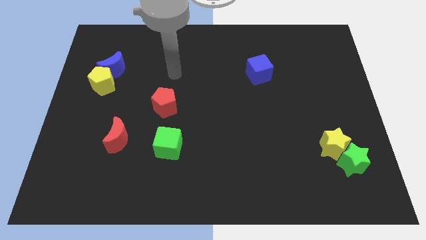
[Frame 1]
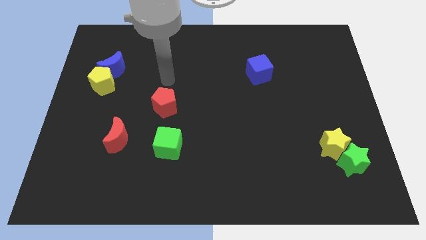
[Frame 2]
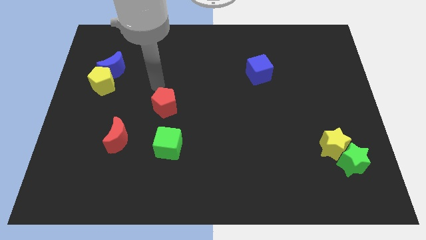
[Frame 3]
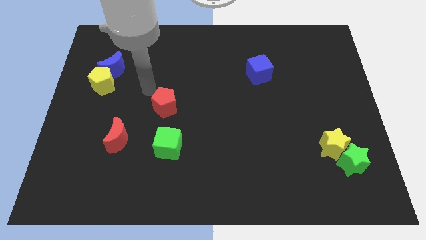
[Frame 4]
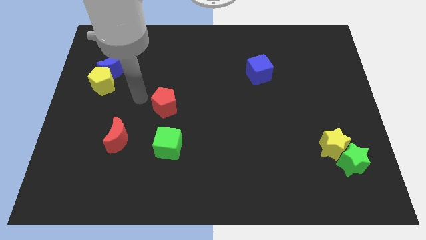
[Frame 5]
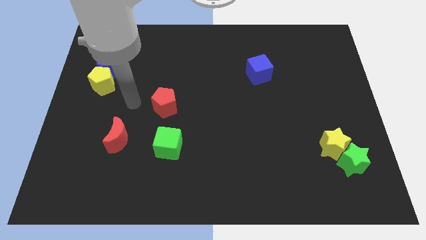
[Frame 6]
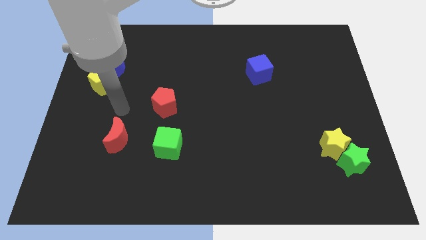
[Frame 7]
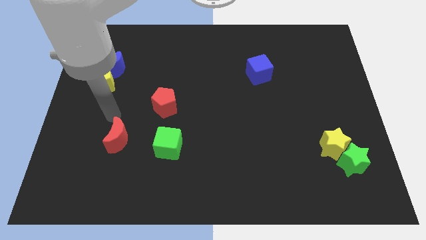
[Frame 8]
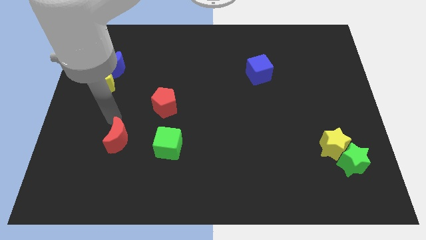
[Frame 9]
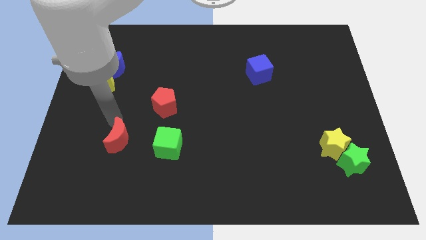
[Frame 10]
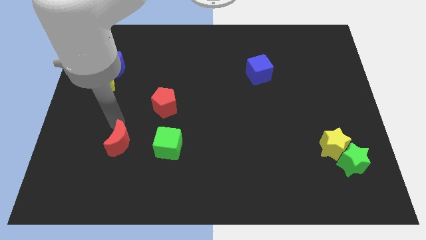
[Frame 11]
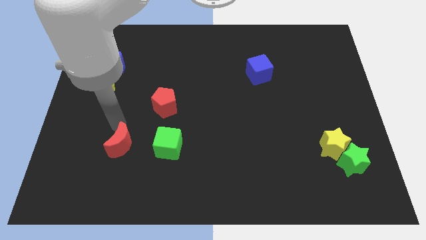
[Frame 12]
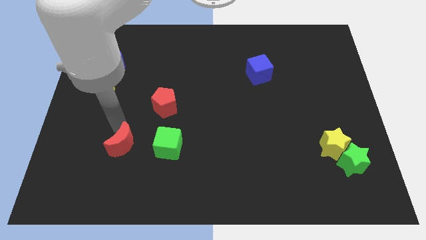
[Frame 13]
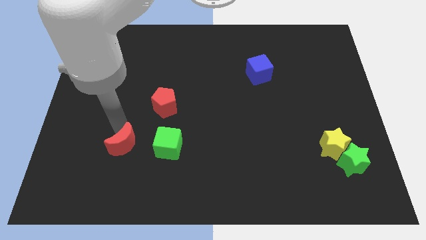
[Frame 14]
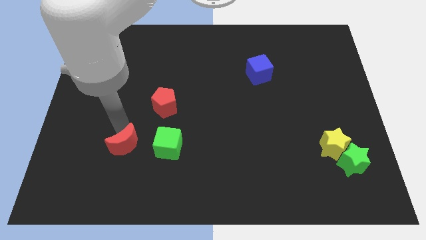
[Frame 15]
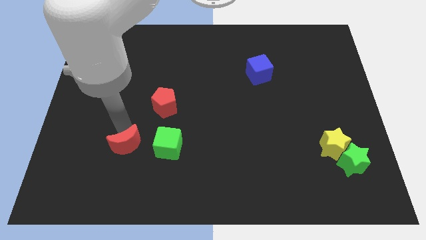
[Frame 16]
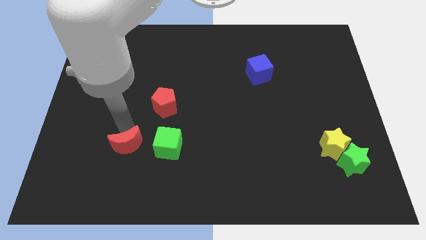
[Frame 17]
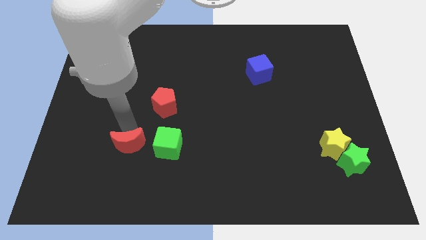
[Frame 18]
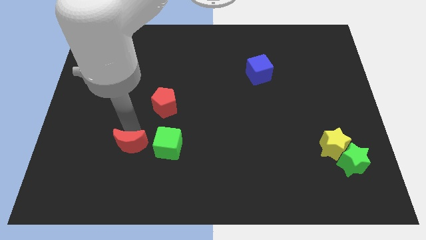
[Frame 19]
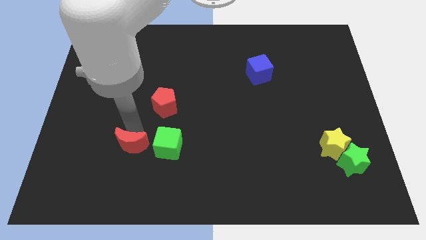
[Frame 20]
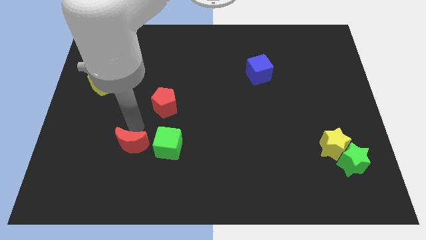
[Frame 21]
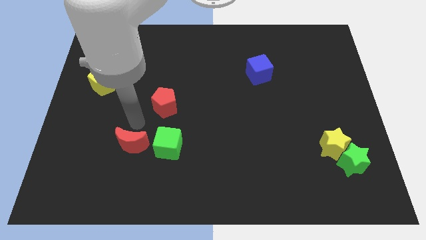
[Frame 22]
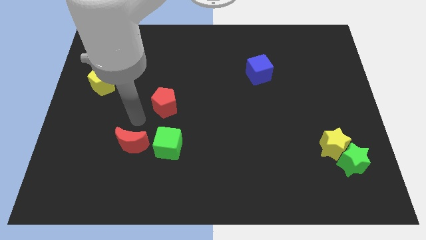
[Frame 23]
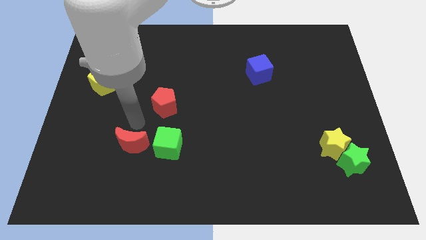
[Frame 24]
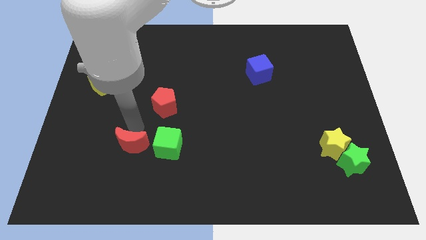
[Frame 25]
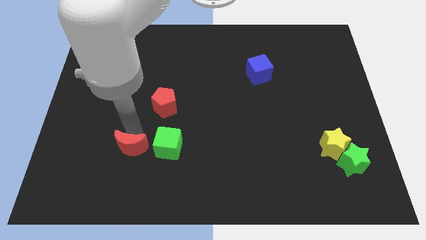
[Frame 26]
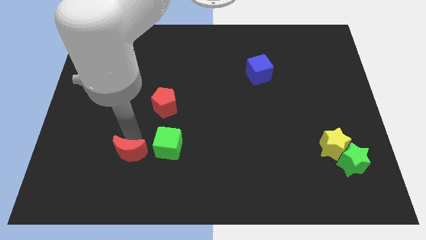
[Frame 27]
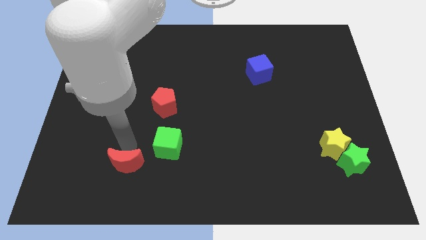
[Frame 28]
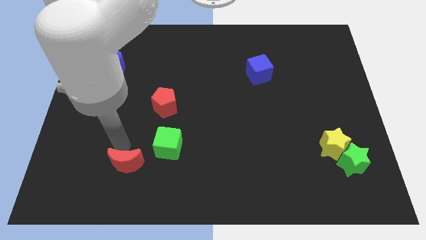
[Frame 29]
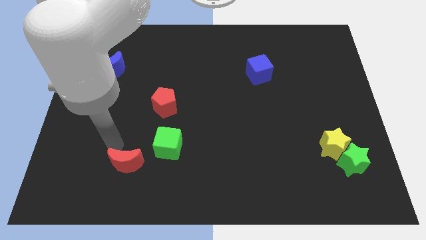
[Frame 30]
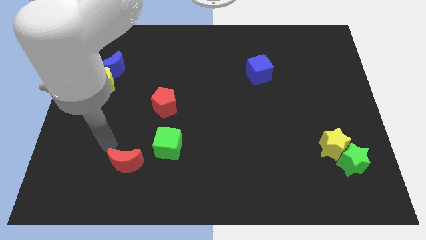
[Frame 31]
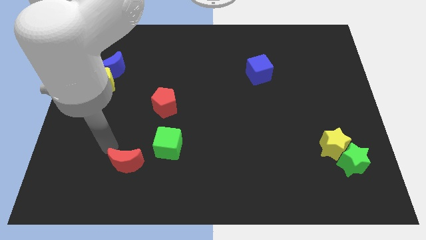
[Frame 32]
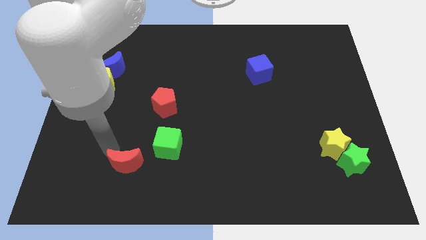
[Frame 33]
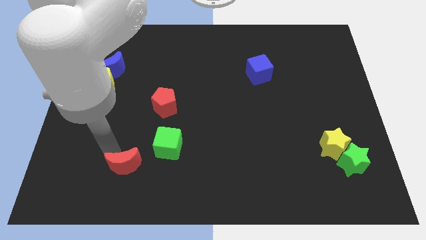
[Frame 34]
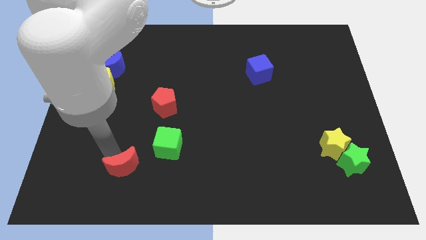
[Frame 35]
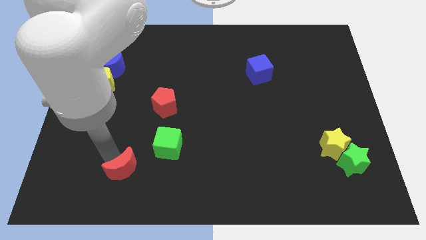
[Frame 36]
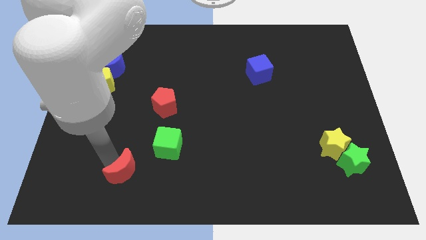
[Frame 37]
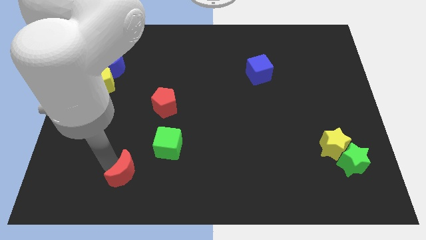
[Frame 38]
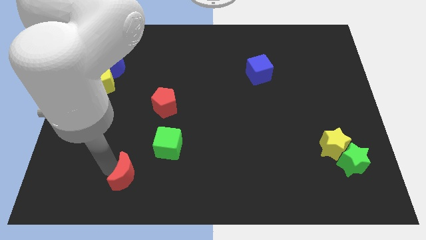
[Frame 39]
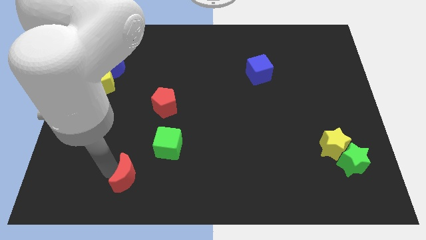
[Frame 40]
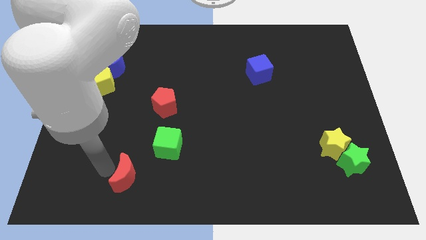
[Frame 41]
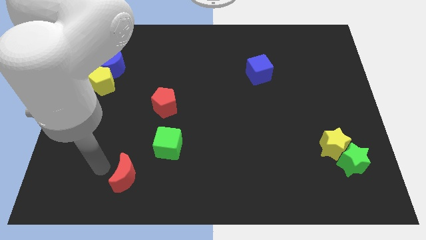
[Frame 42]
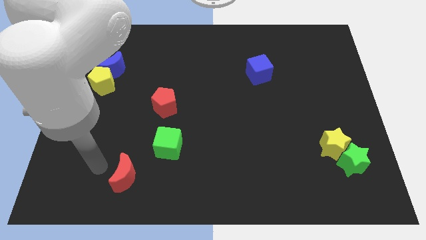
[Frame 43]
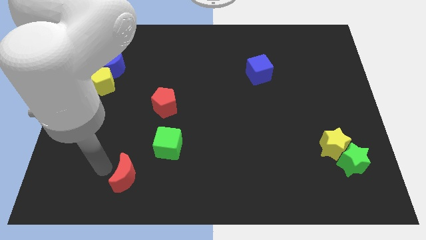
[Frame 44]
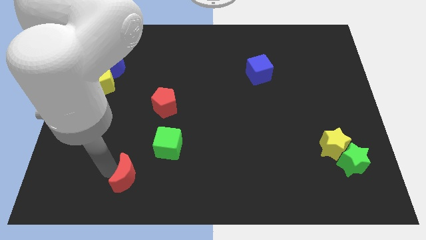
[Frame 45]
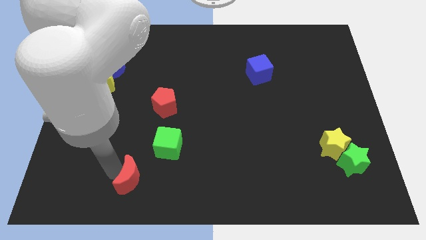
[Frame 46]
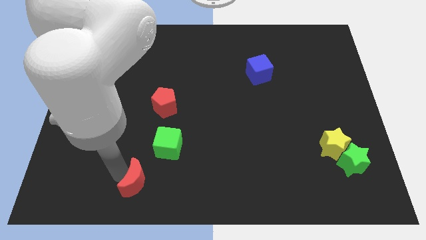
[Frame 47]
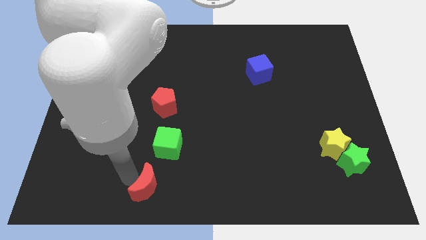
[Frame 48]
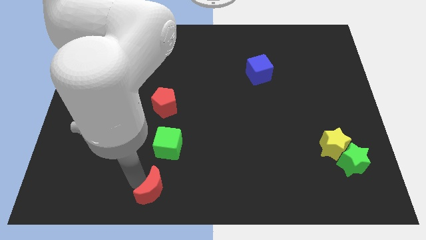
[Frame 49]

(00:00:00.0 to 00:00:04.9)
move the red moon to the bottom side

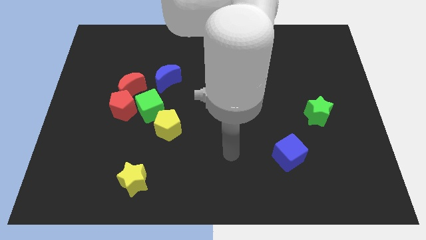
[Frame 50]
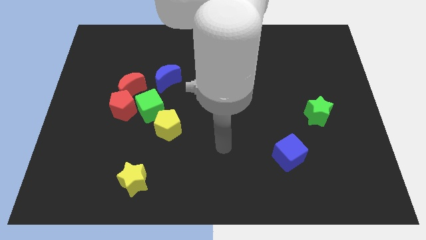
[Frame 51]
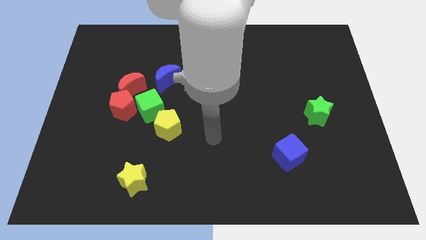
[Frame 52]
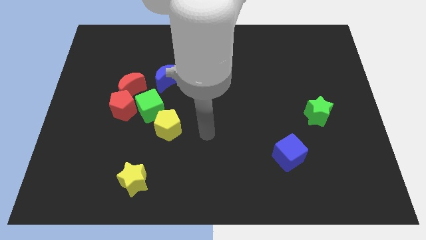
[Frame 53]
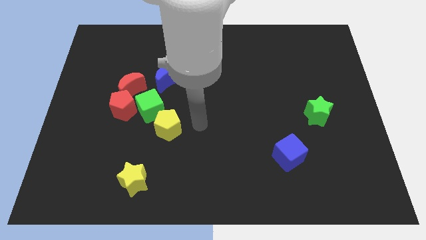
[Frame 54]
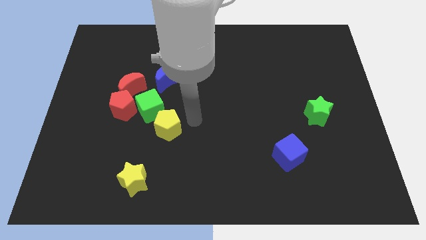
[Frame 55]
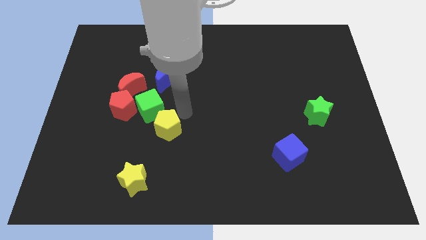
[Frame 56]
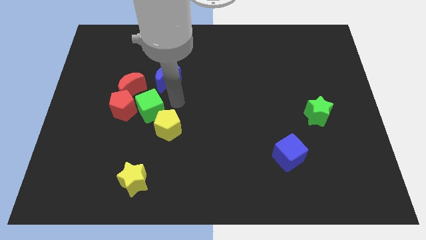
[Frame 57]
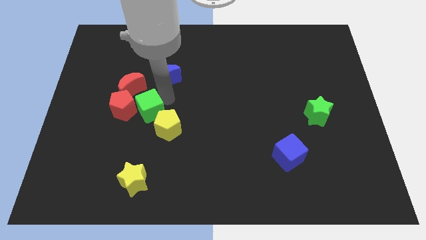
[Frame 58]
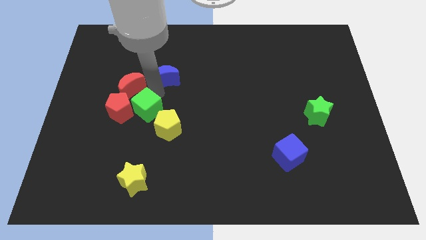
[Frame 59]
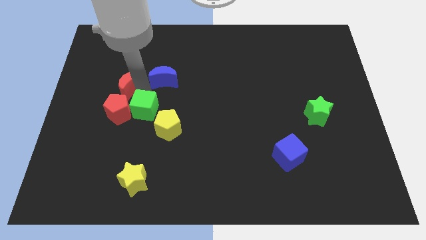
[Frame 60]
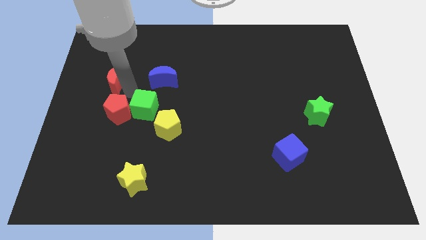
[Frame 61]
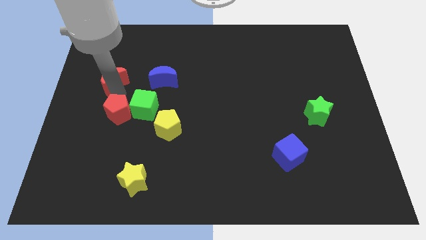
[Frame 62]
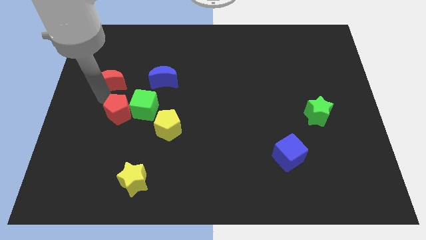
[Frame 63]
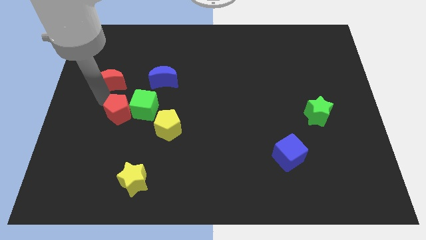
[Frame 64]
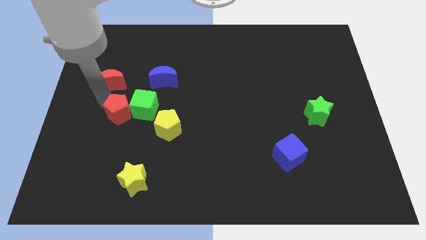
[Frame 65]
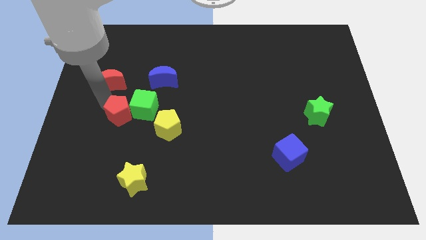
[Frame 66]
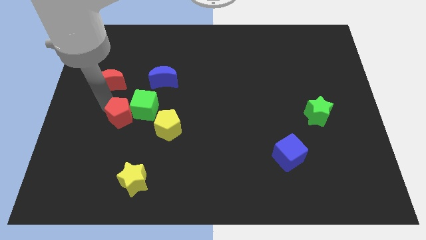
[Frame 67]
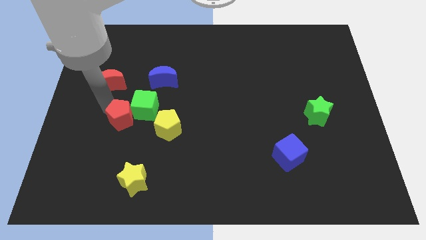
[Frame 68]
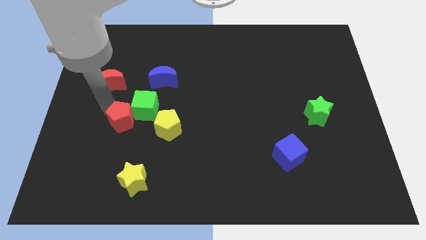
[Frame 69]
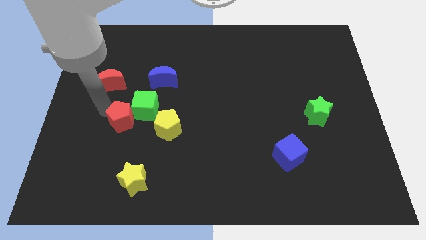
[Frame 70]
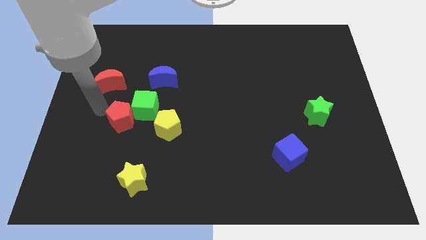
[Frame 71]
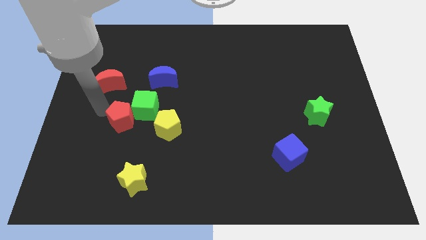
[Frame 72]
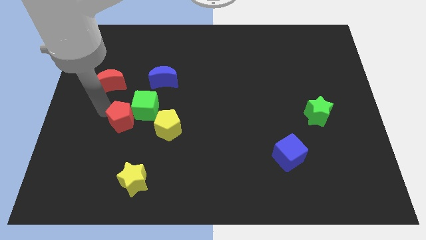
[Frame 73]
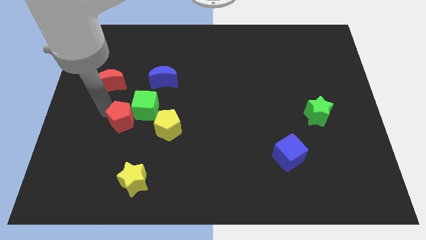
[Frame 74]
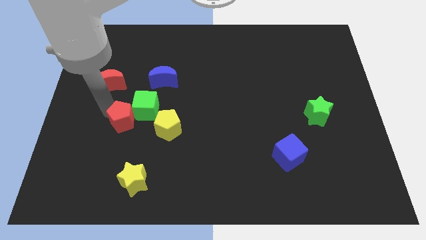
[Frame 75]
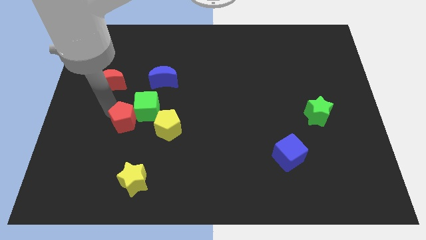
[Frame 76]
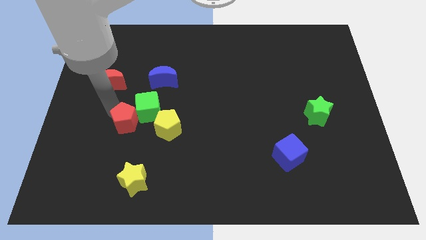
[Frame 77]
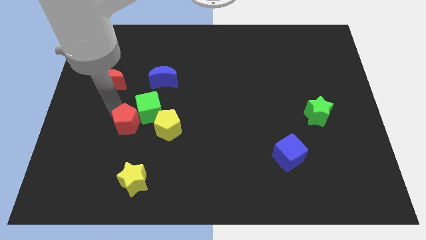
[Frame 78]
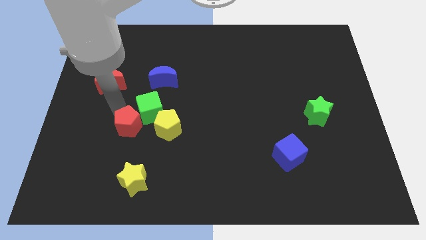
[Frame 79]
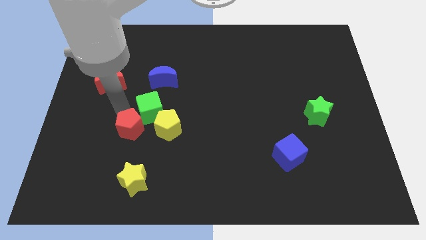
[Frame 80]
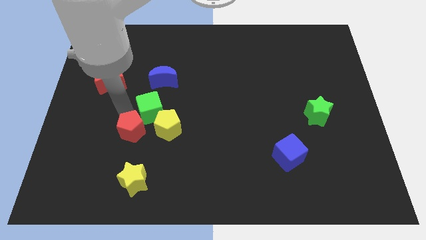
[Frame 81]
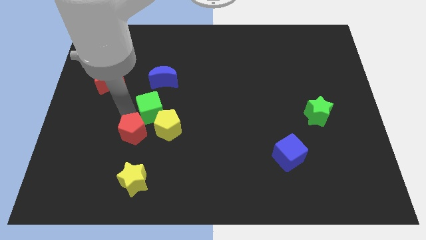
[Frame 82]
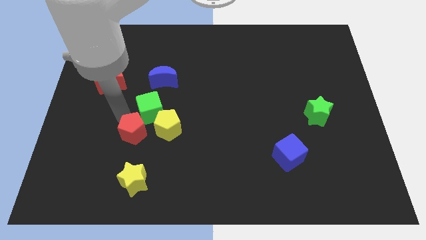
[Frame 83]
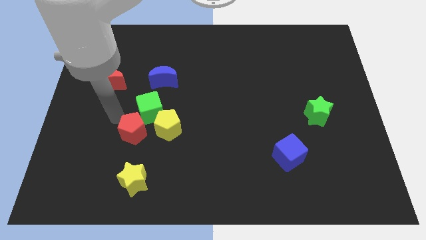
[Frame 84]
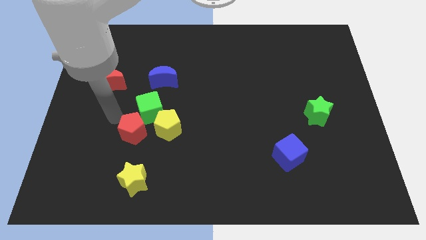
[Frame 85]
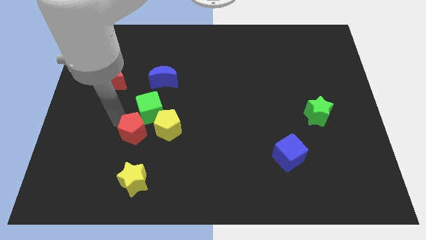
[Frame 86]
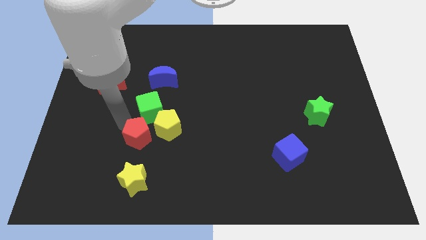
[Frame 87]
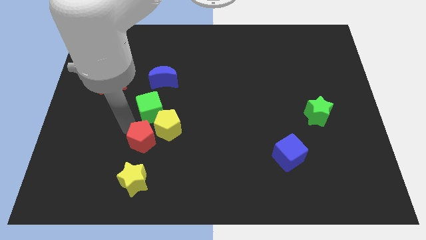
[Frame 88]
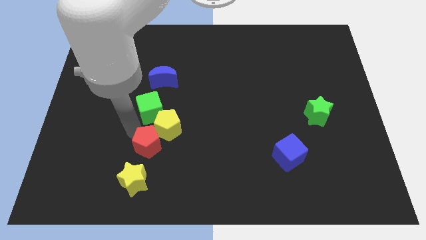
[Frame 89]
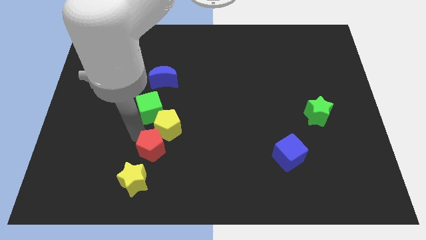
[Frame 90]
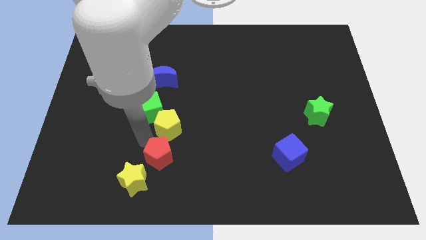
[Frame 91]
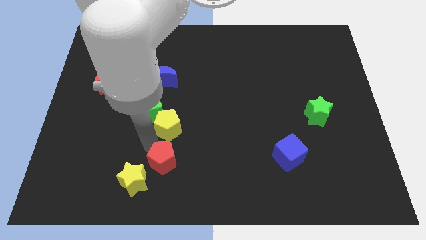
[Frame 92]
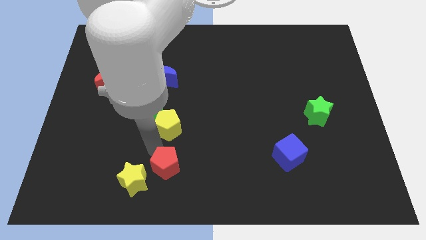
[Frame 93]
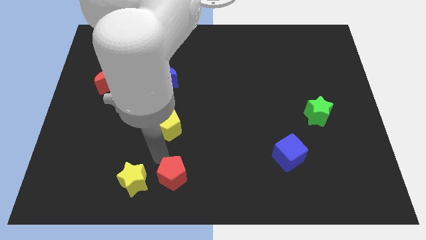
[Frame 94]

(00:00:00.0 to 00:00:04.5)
slide the red pentagon to the bottom side
